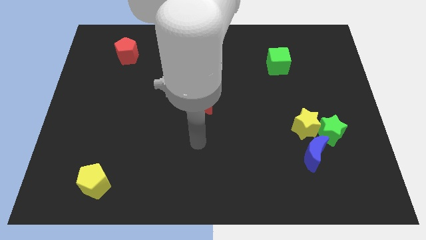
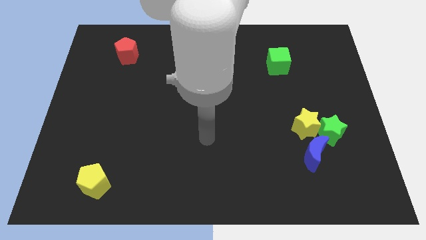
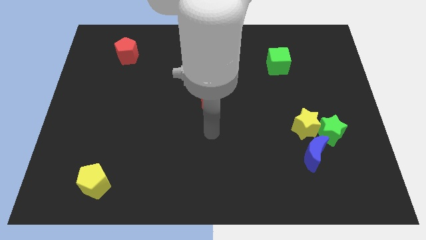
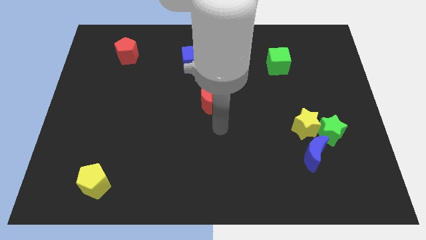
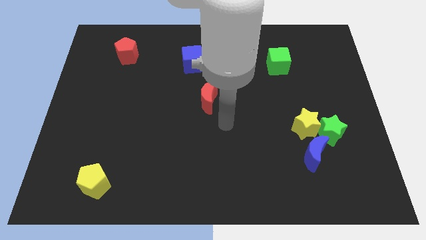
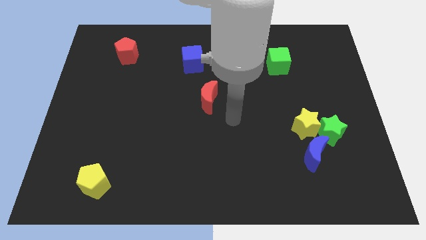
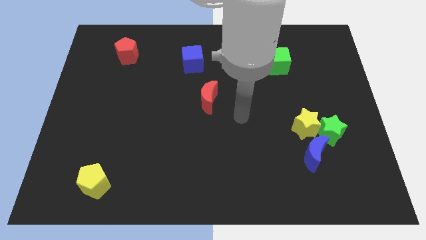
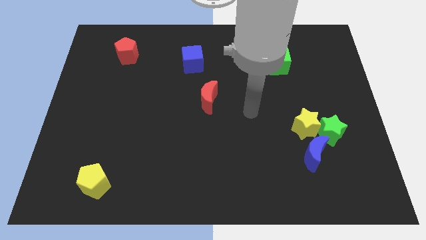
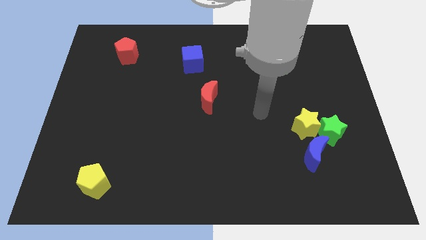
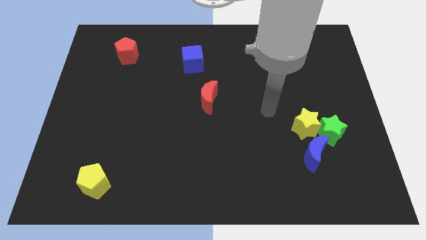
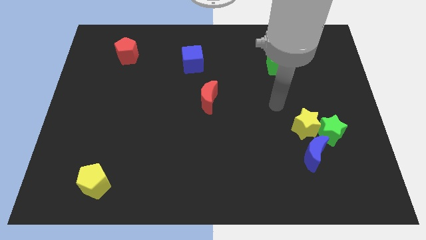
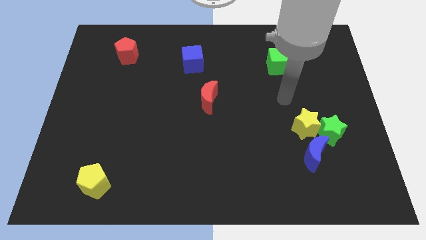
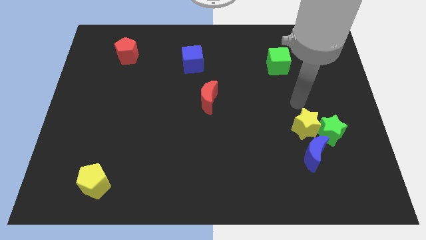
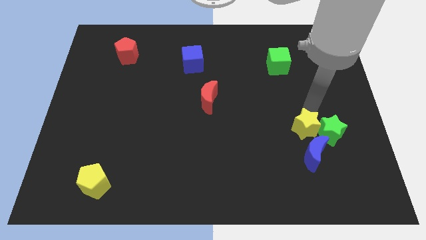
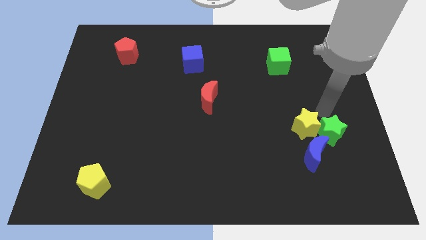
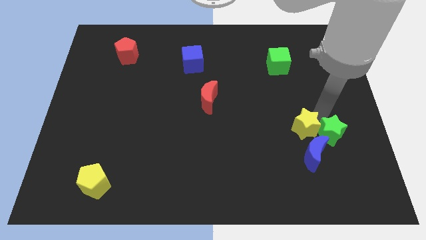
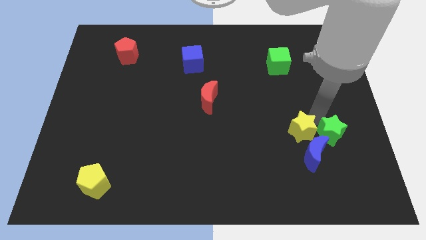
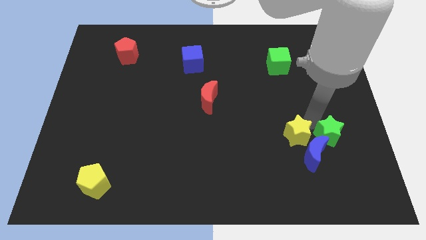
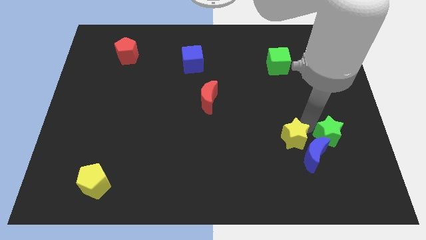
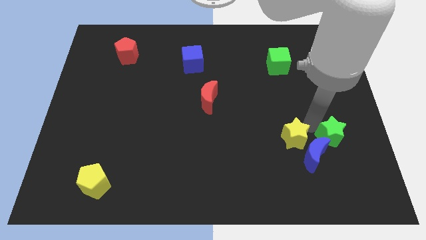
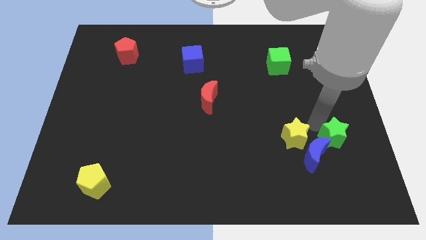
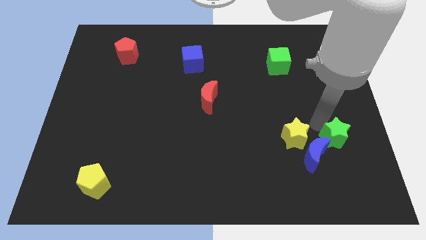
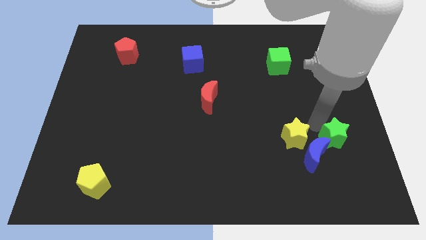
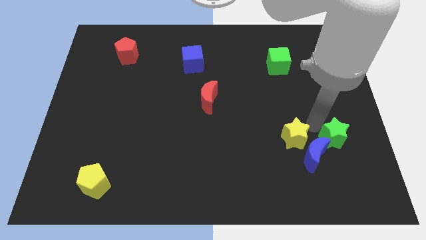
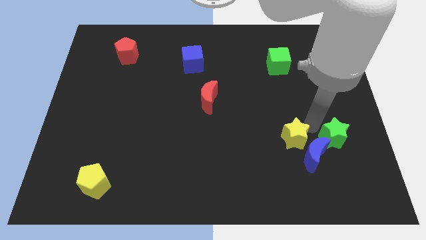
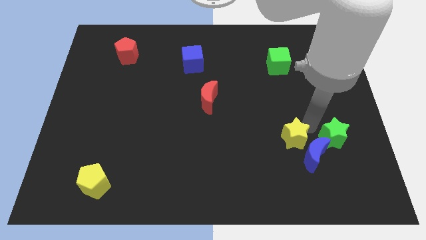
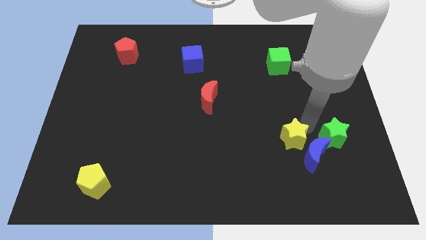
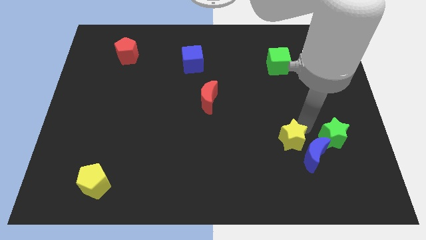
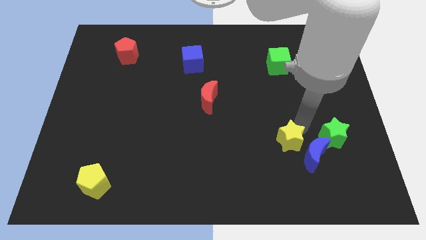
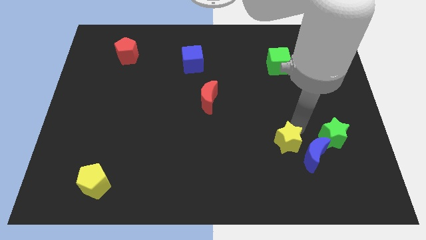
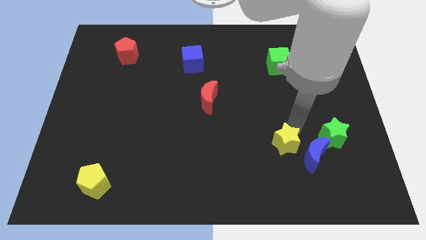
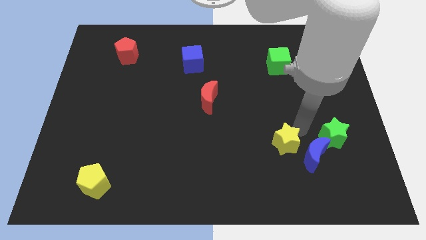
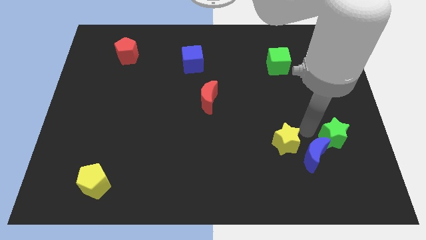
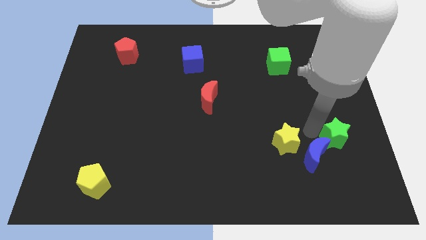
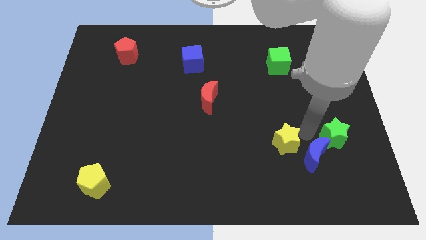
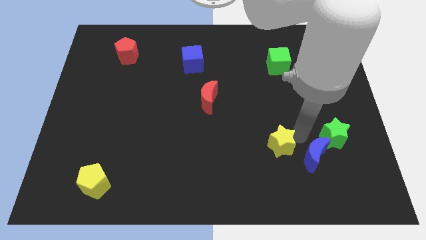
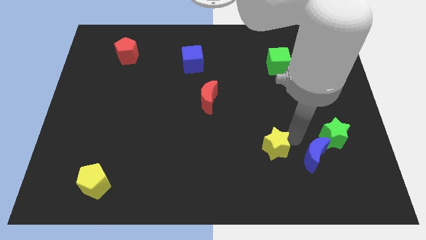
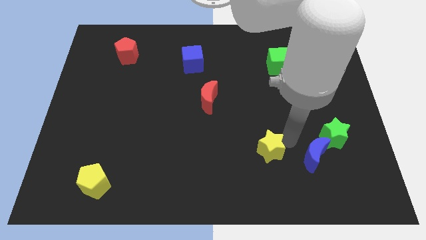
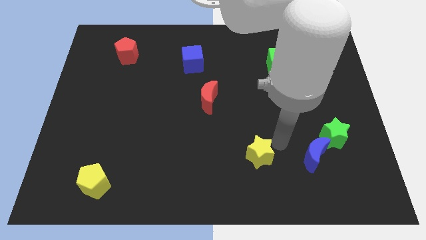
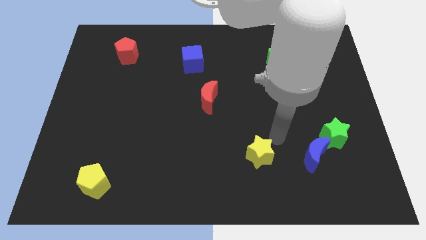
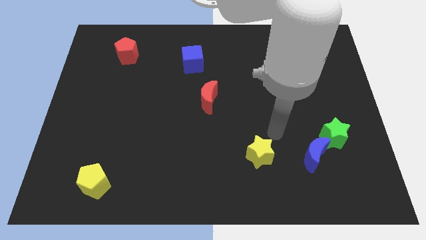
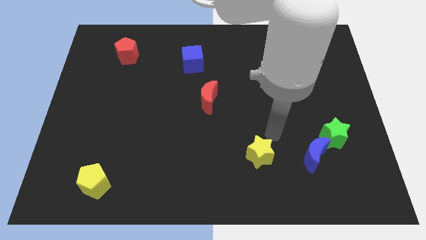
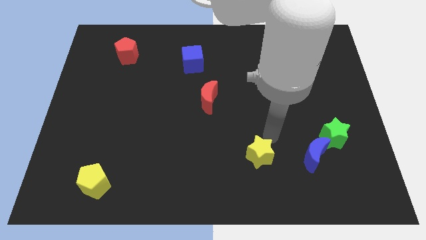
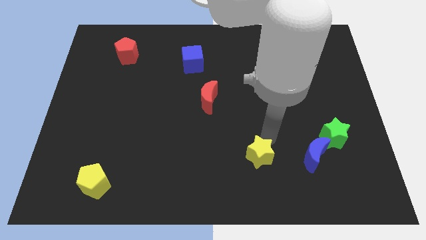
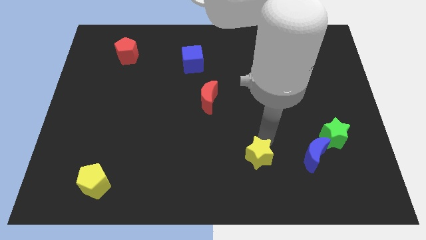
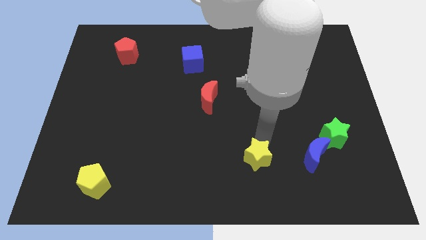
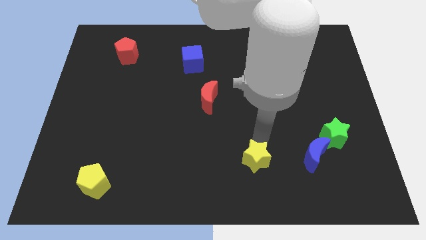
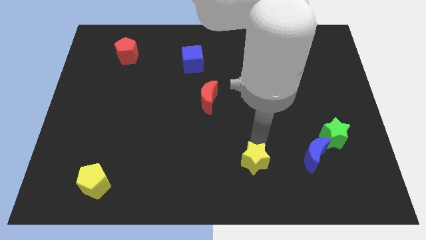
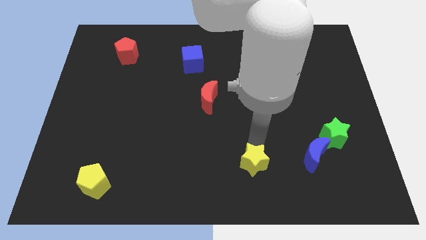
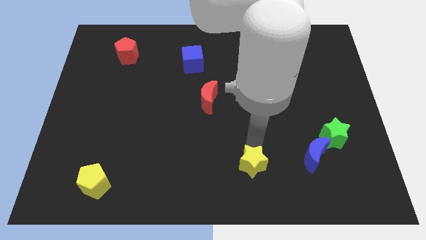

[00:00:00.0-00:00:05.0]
move the yellow star to the bottom

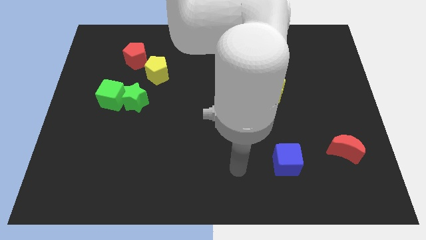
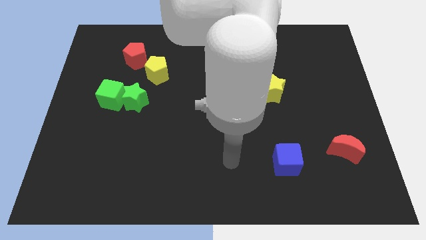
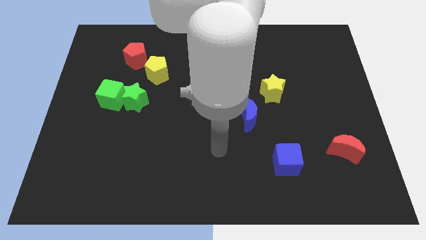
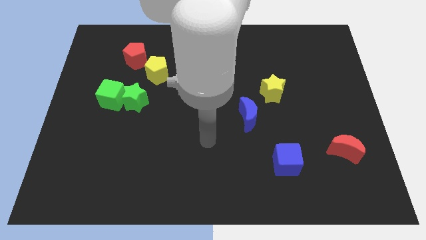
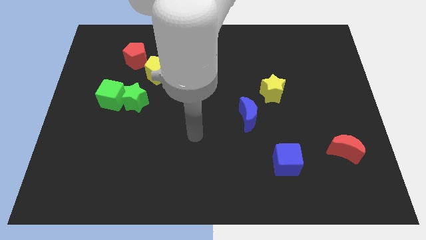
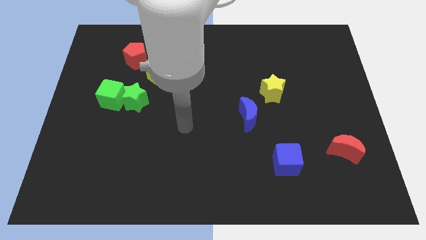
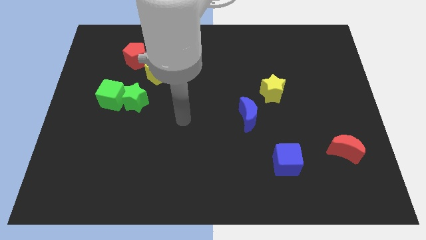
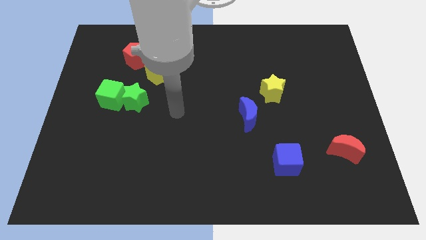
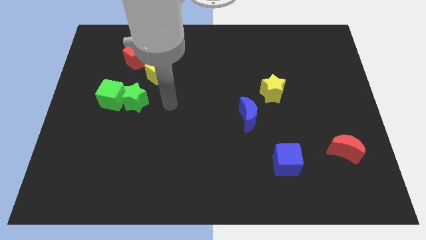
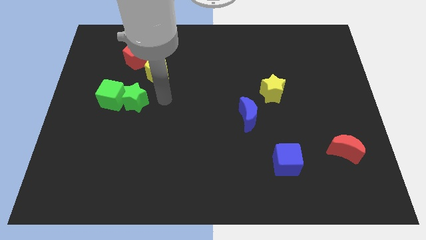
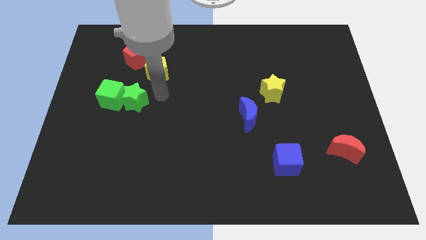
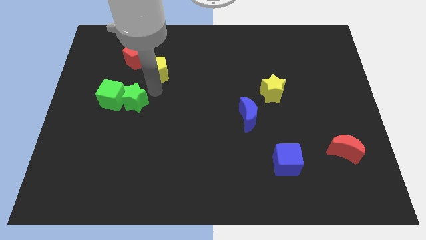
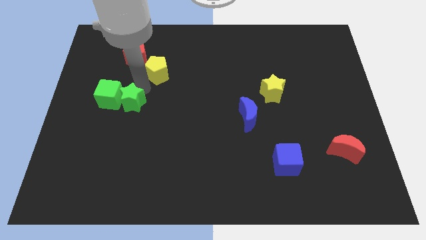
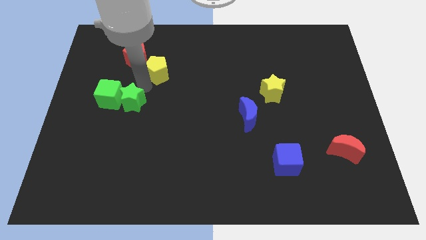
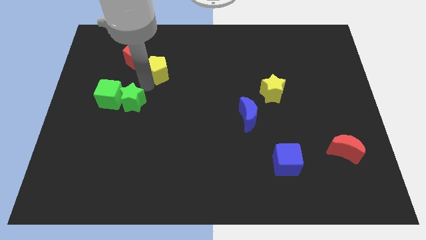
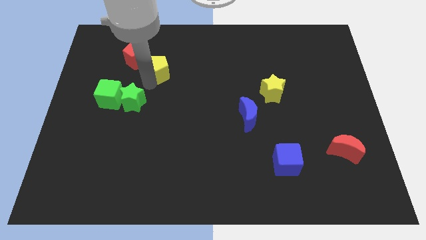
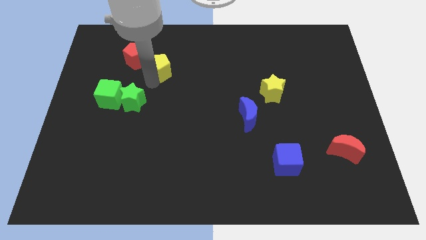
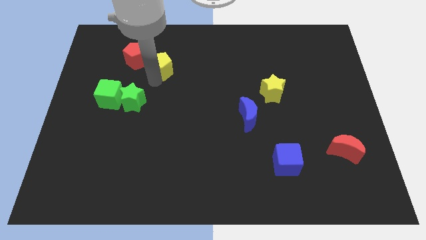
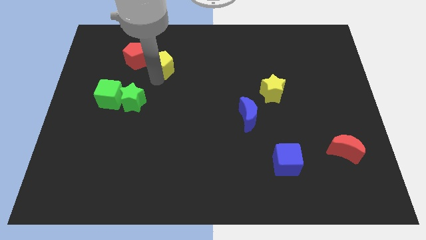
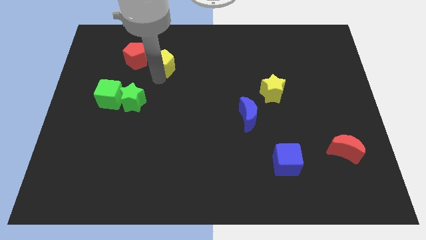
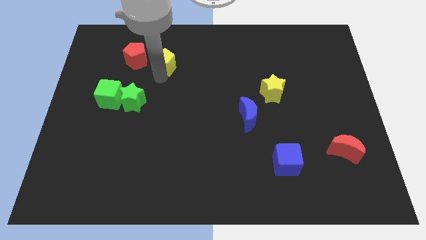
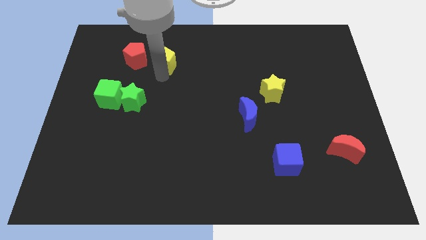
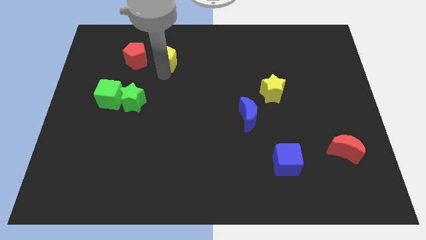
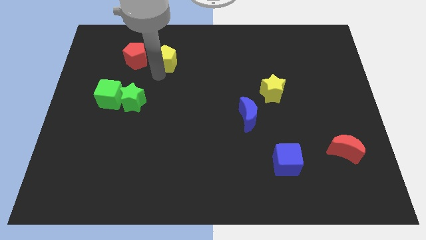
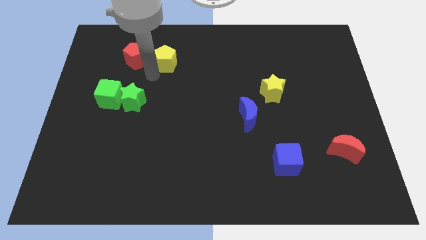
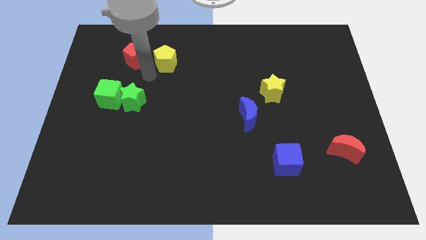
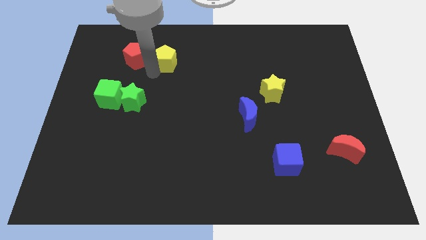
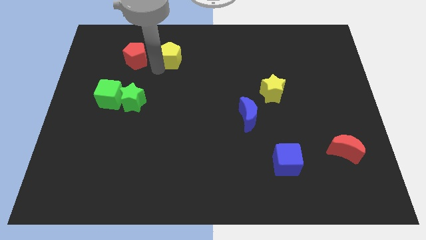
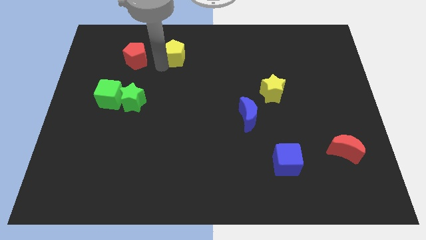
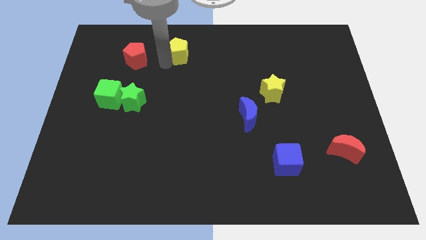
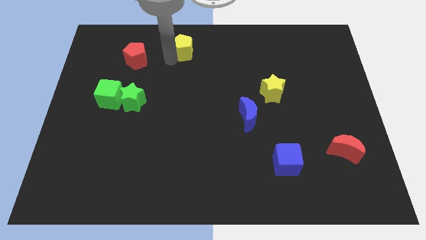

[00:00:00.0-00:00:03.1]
slide the yellow pentagon to the top
